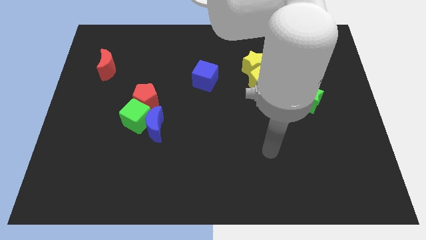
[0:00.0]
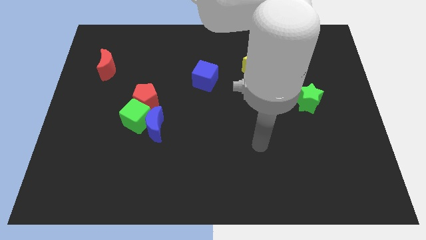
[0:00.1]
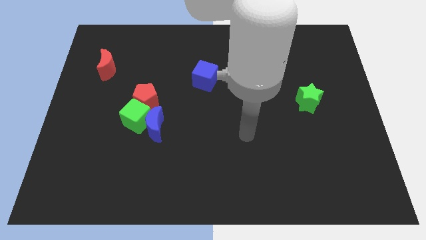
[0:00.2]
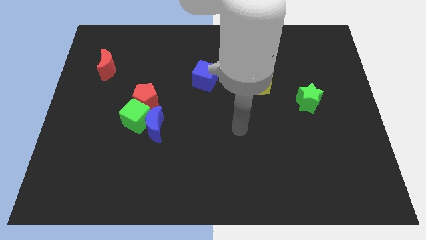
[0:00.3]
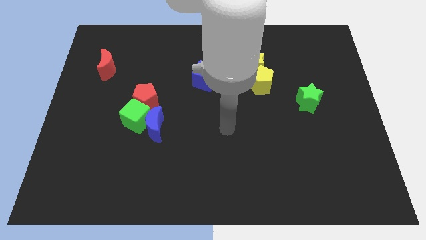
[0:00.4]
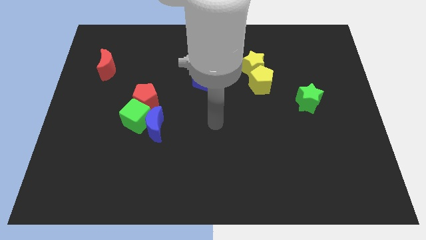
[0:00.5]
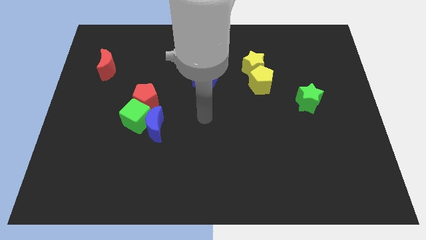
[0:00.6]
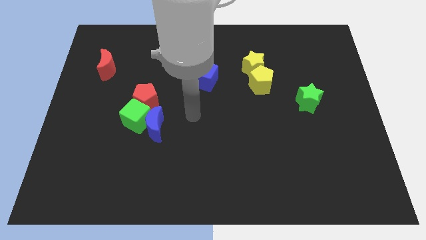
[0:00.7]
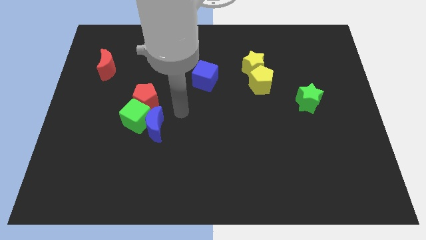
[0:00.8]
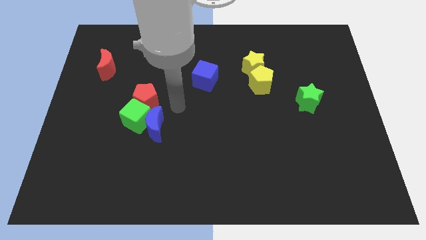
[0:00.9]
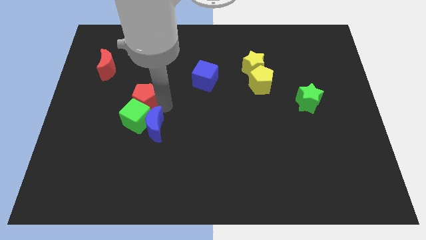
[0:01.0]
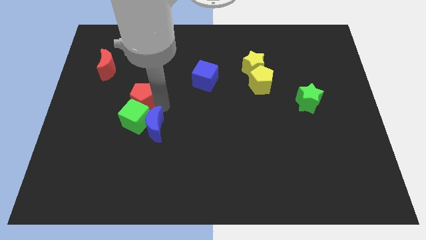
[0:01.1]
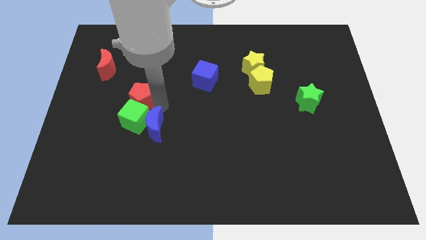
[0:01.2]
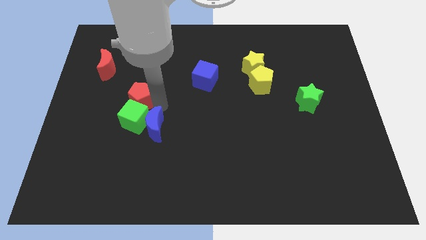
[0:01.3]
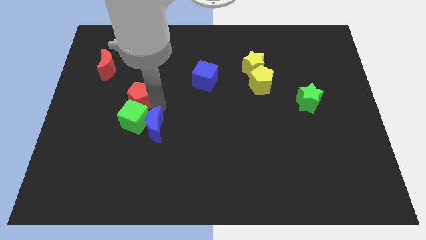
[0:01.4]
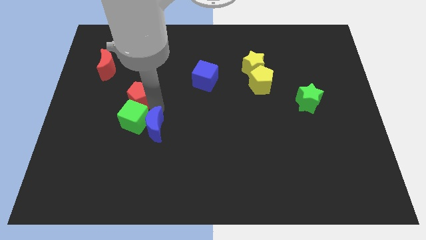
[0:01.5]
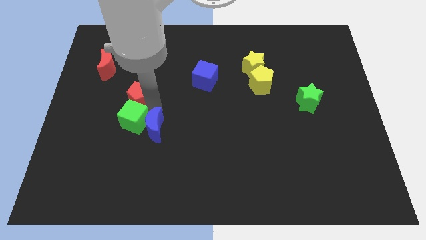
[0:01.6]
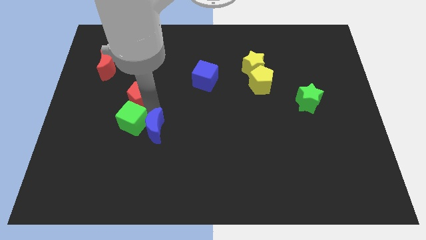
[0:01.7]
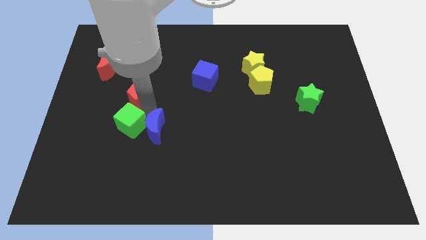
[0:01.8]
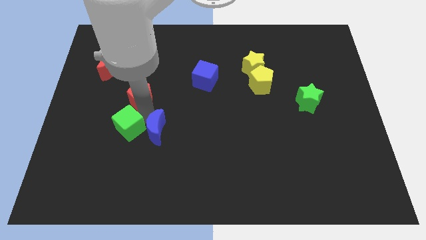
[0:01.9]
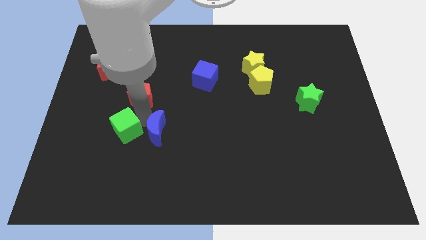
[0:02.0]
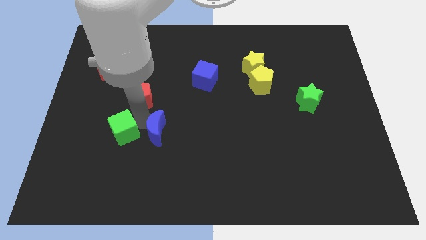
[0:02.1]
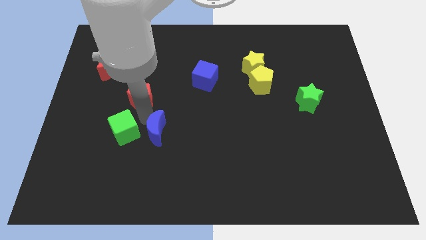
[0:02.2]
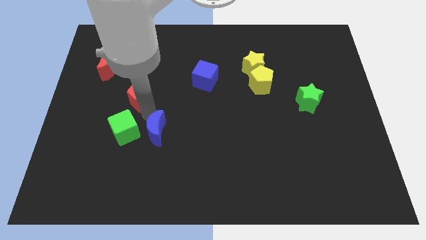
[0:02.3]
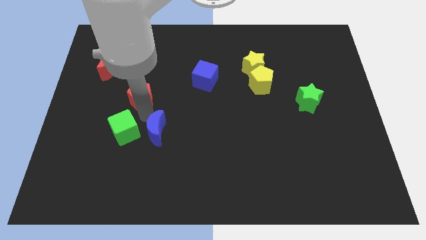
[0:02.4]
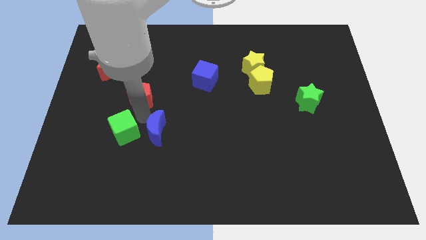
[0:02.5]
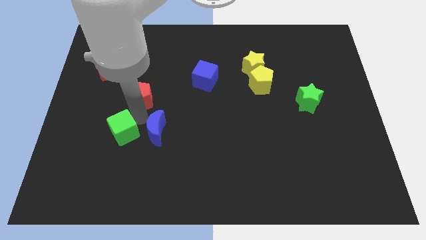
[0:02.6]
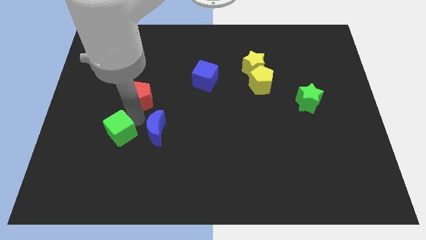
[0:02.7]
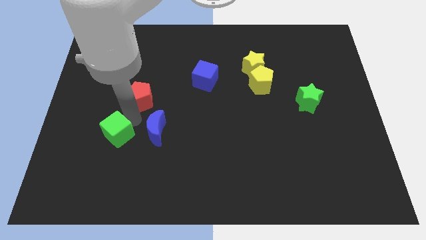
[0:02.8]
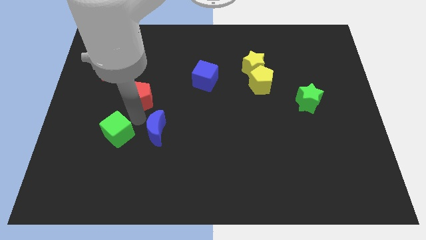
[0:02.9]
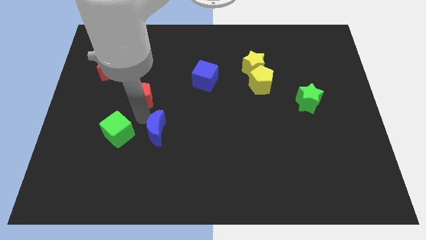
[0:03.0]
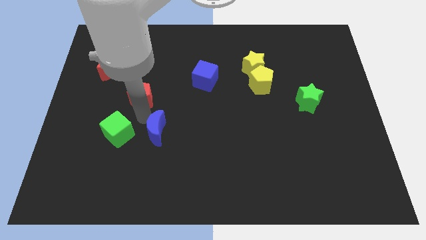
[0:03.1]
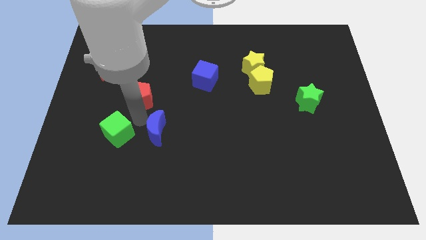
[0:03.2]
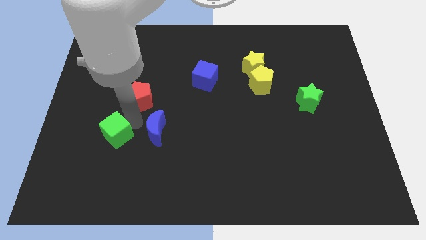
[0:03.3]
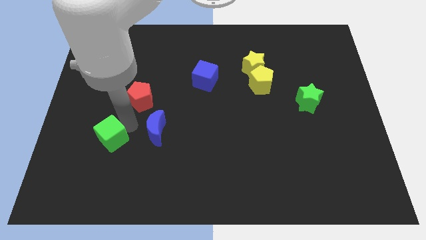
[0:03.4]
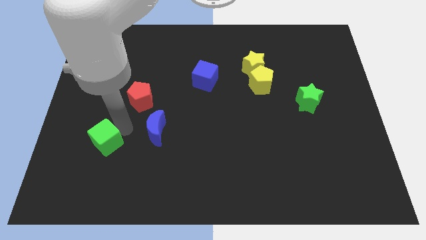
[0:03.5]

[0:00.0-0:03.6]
separate the green cube from the blue moon and red pentagon

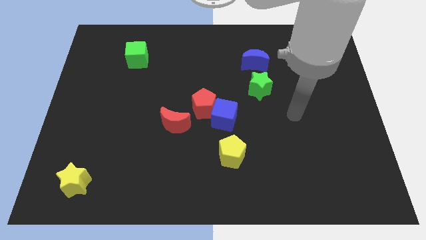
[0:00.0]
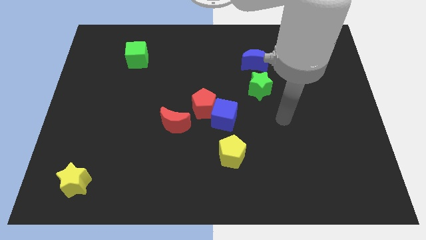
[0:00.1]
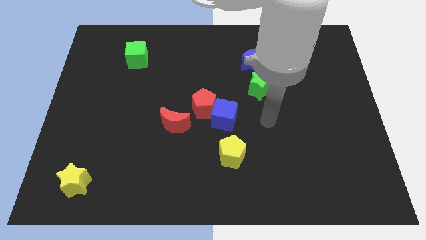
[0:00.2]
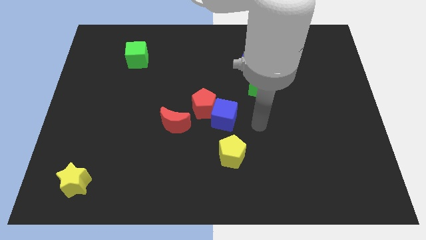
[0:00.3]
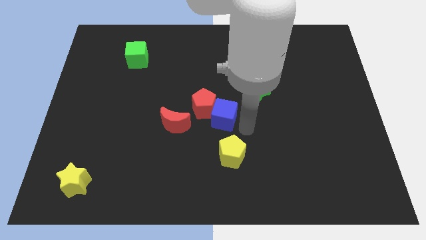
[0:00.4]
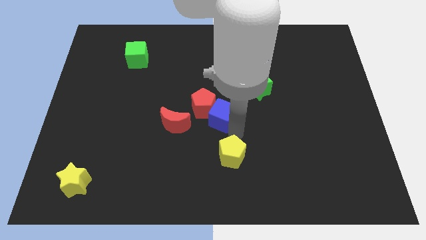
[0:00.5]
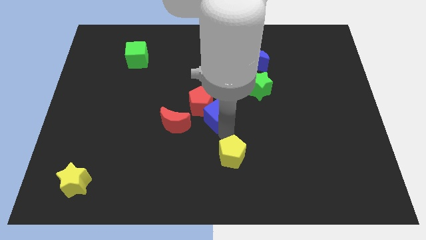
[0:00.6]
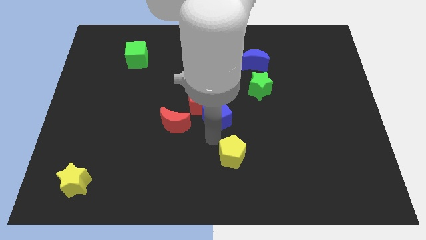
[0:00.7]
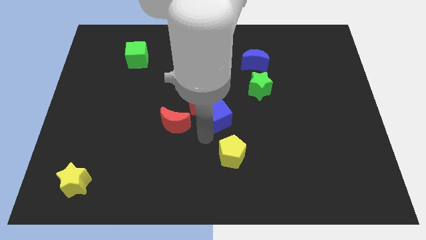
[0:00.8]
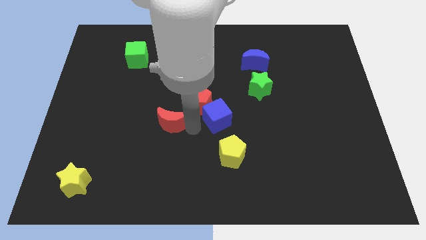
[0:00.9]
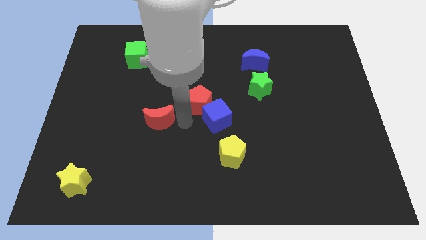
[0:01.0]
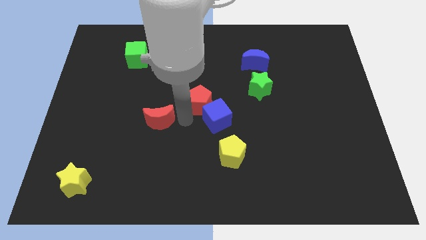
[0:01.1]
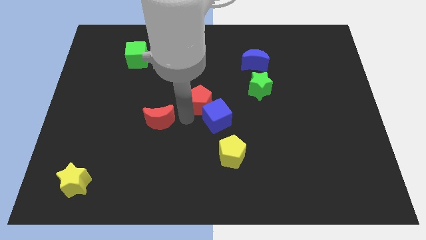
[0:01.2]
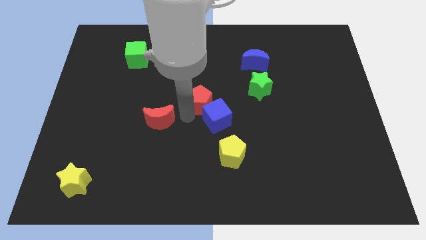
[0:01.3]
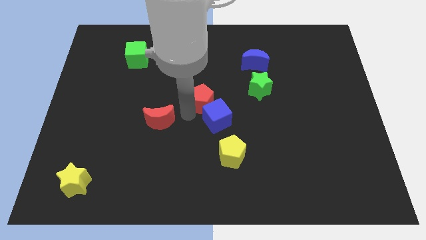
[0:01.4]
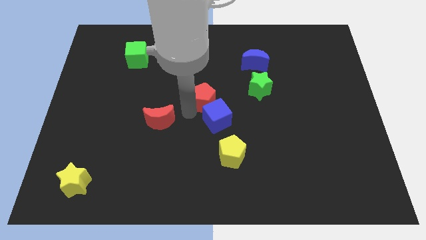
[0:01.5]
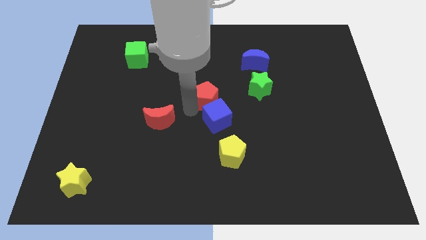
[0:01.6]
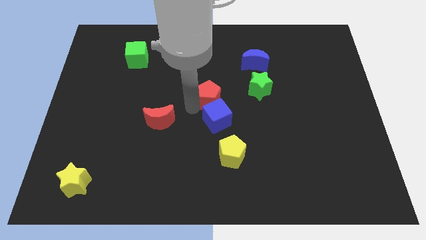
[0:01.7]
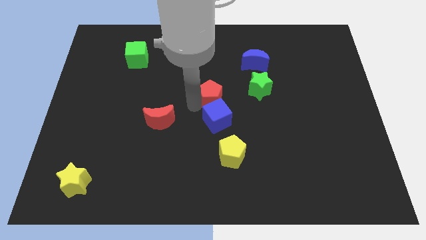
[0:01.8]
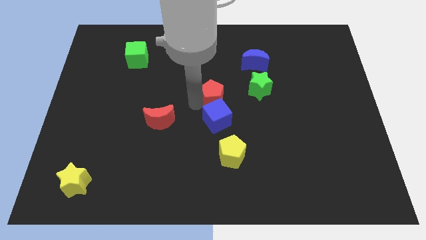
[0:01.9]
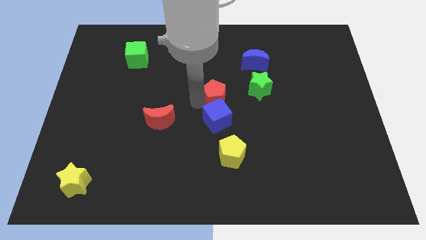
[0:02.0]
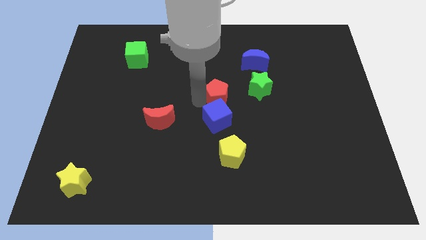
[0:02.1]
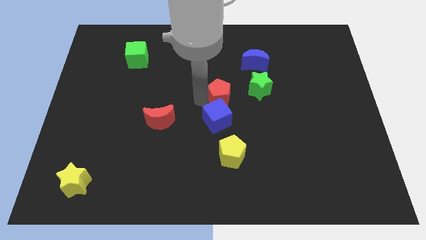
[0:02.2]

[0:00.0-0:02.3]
move the red pentagon away from the blue cube and red moon

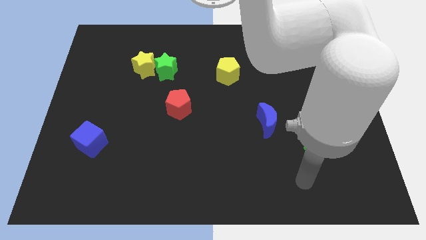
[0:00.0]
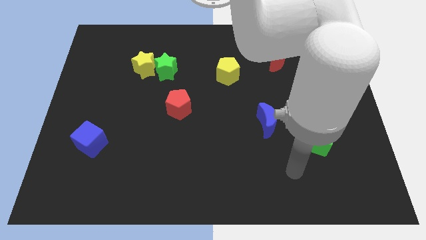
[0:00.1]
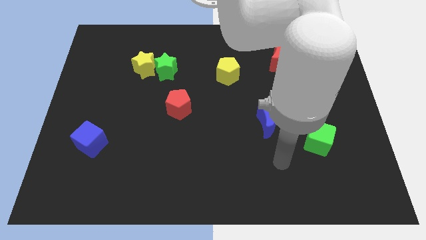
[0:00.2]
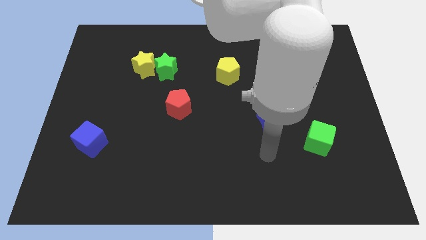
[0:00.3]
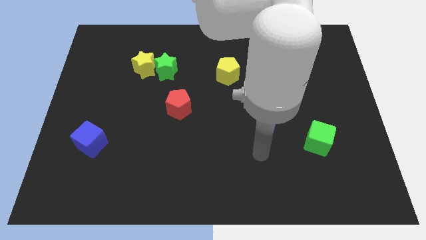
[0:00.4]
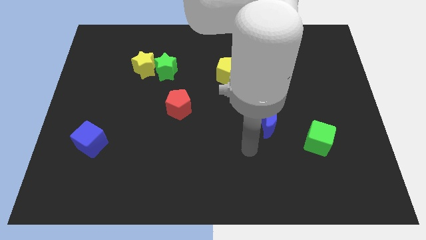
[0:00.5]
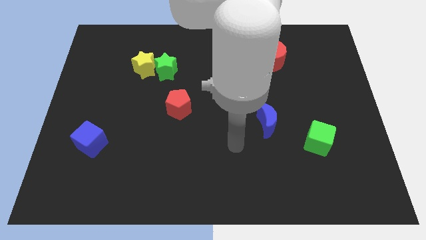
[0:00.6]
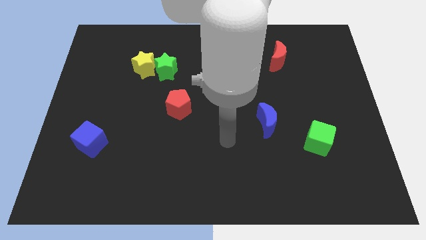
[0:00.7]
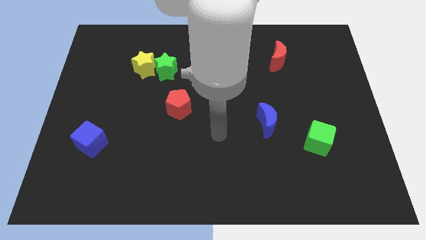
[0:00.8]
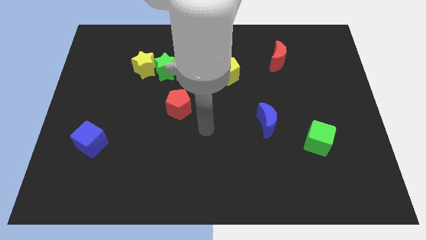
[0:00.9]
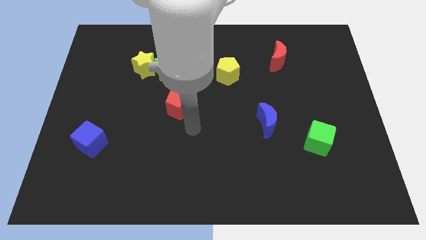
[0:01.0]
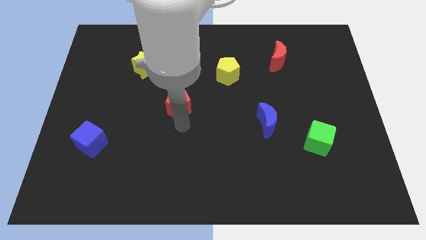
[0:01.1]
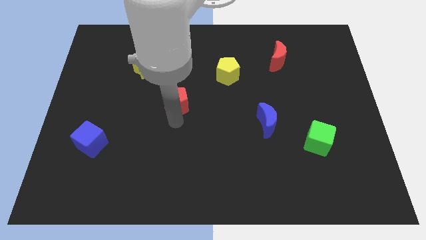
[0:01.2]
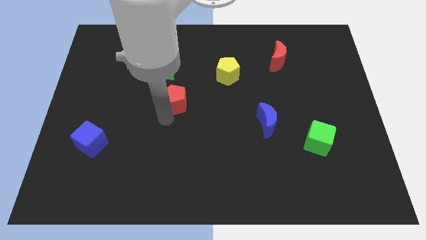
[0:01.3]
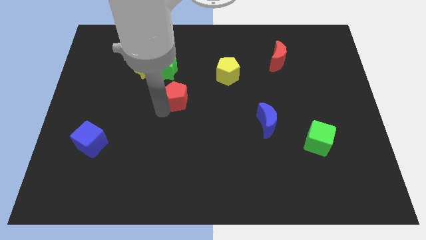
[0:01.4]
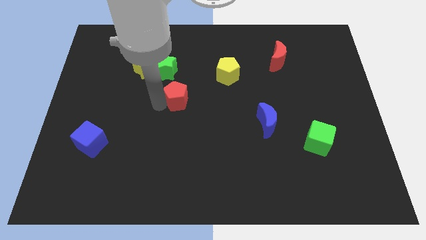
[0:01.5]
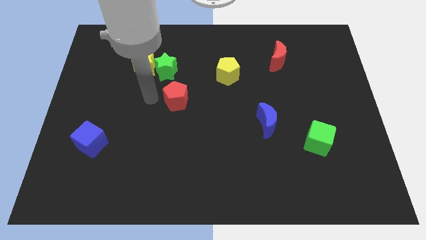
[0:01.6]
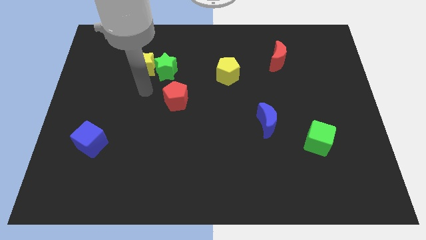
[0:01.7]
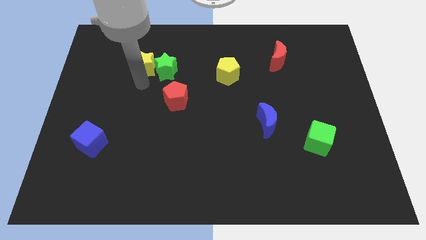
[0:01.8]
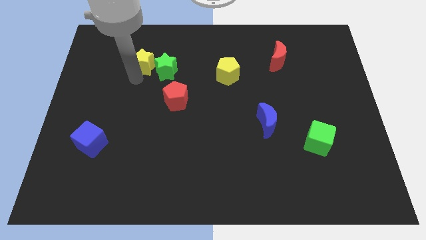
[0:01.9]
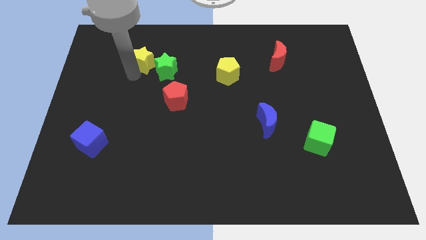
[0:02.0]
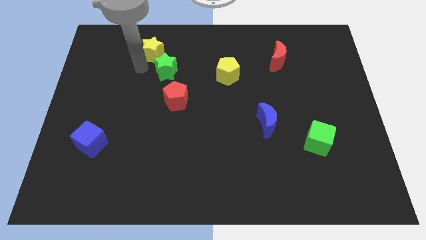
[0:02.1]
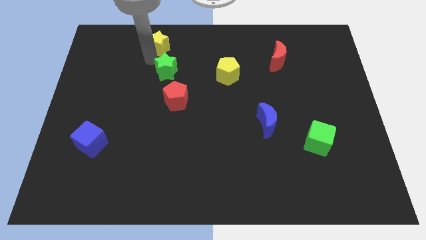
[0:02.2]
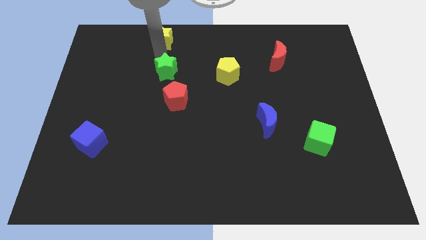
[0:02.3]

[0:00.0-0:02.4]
separate the green star from the yellow star

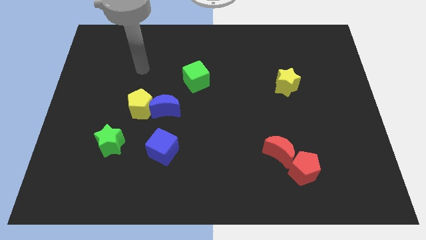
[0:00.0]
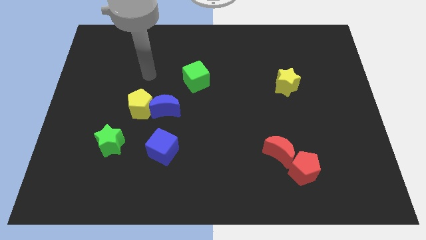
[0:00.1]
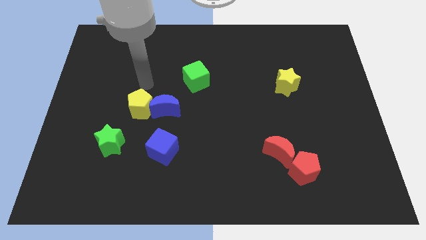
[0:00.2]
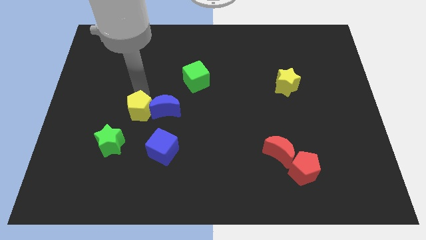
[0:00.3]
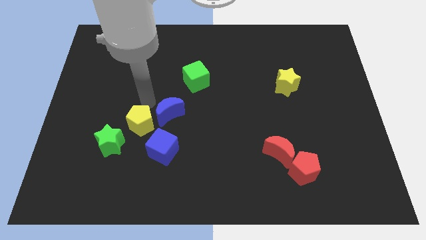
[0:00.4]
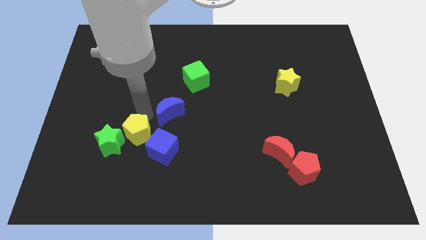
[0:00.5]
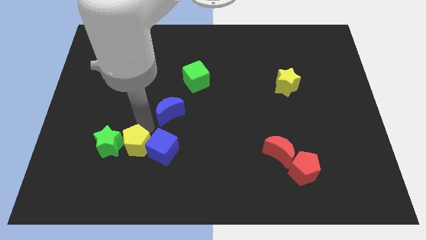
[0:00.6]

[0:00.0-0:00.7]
pull the blue moon apart from the yellow pentagon

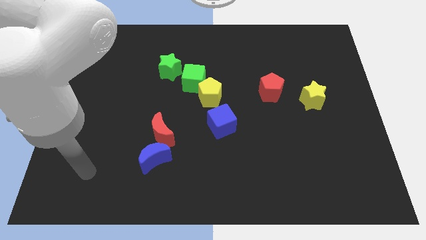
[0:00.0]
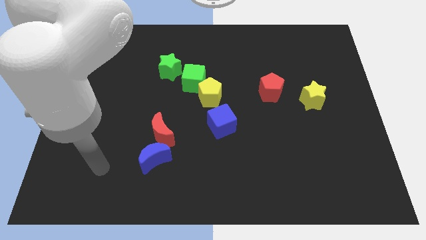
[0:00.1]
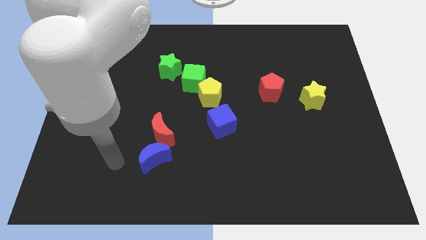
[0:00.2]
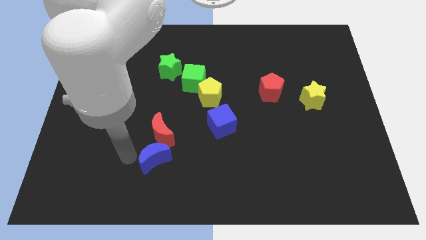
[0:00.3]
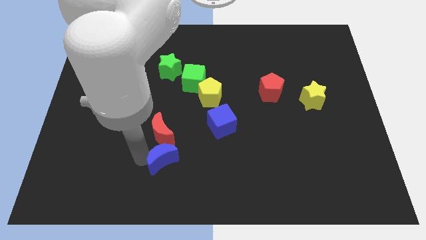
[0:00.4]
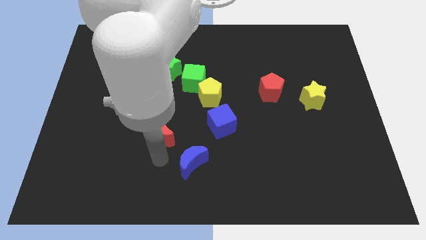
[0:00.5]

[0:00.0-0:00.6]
separate the red moon from the blue moon
